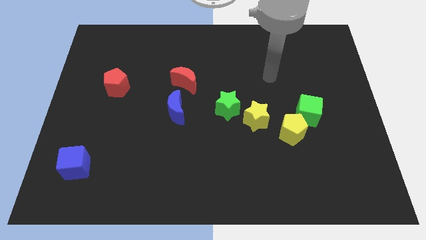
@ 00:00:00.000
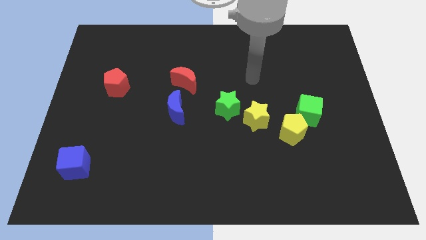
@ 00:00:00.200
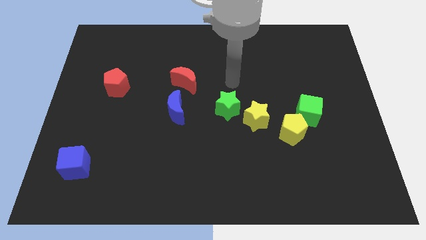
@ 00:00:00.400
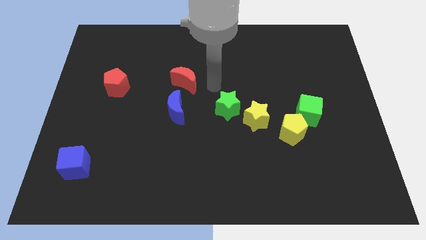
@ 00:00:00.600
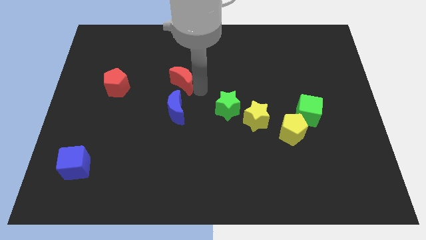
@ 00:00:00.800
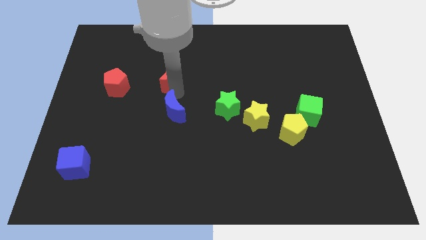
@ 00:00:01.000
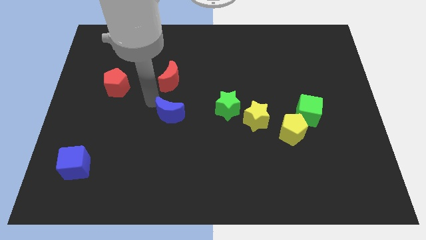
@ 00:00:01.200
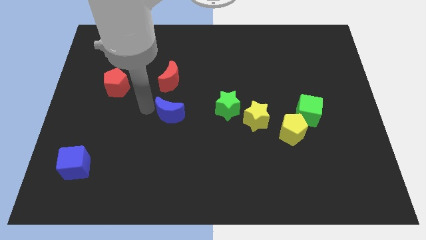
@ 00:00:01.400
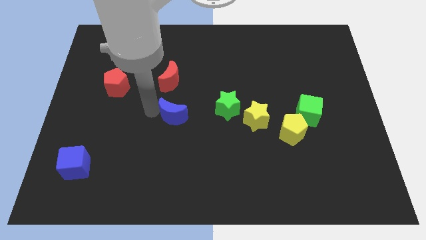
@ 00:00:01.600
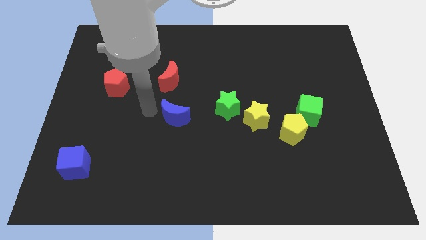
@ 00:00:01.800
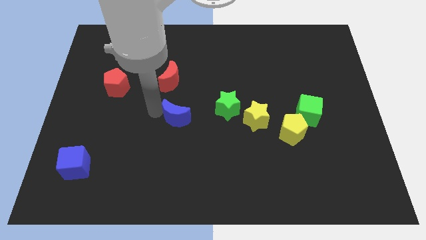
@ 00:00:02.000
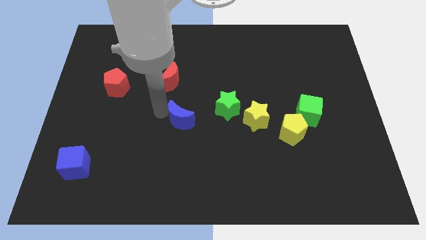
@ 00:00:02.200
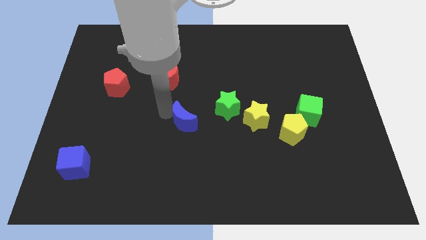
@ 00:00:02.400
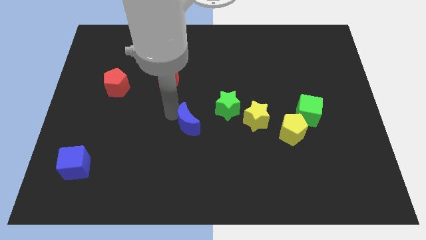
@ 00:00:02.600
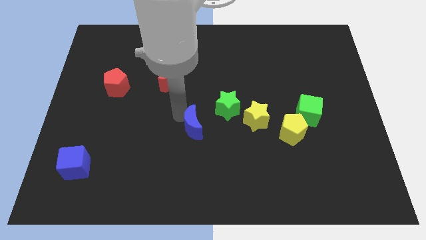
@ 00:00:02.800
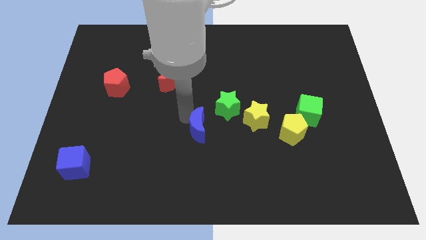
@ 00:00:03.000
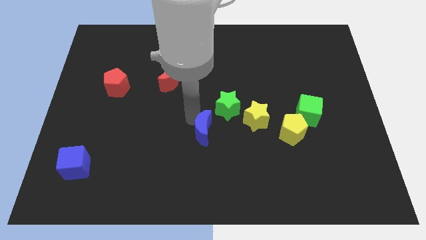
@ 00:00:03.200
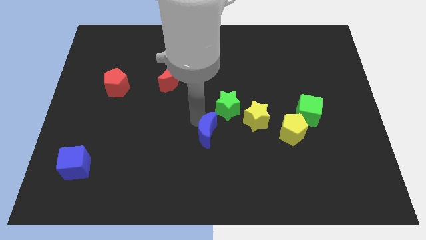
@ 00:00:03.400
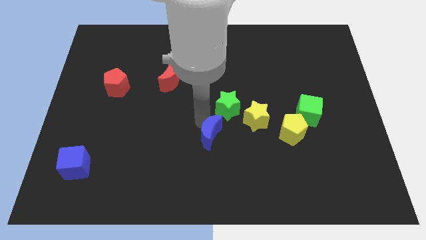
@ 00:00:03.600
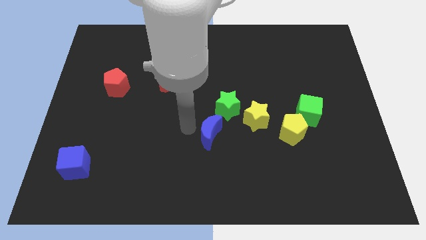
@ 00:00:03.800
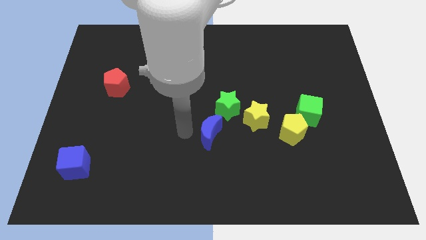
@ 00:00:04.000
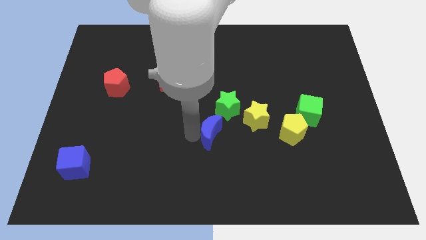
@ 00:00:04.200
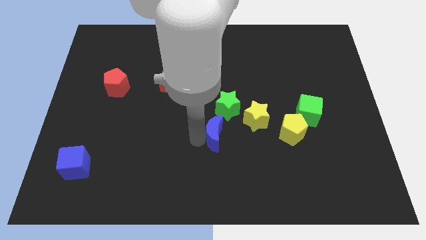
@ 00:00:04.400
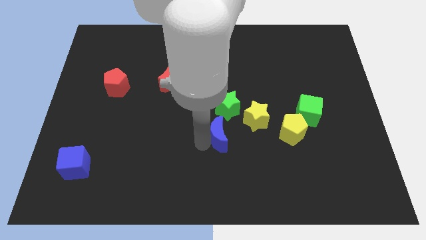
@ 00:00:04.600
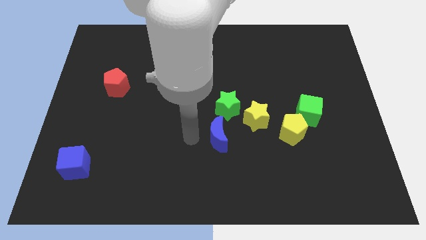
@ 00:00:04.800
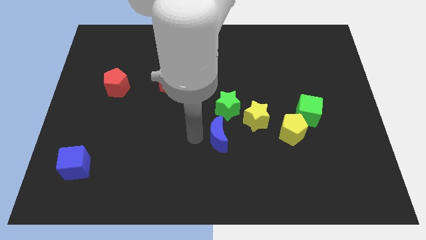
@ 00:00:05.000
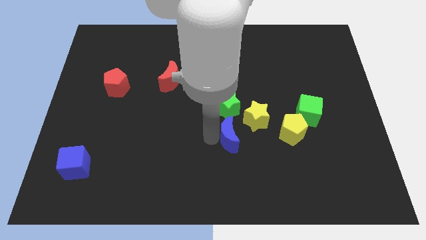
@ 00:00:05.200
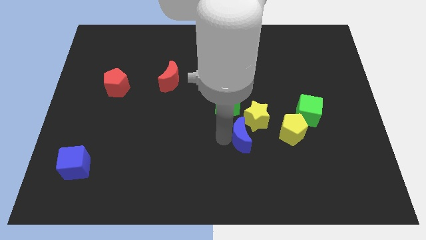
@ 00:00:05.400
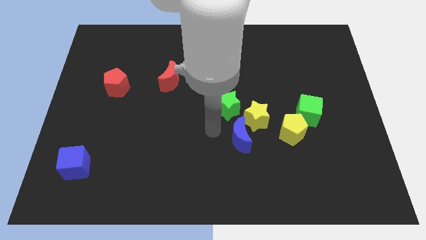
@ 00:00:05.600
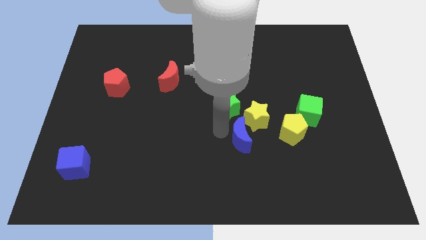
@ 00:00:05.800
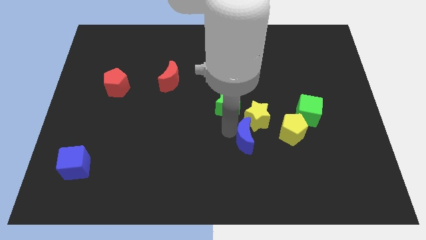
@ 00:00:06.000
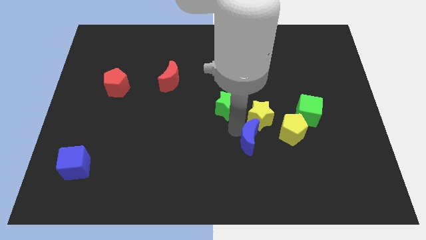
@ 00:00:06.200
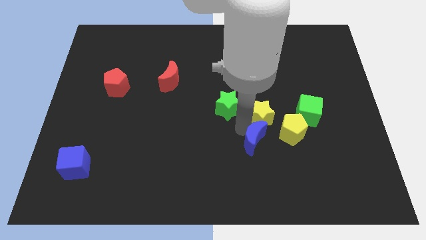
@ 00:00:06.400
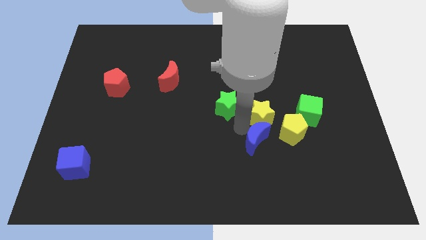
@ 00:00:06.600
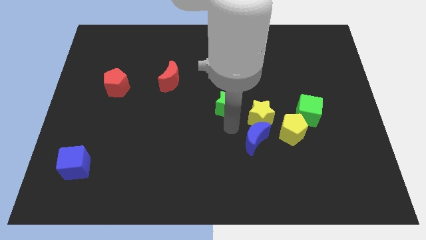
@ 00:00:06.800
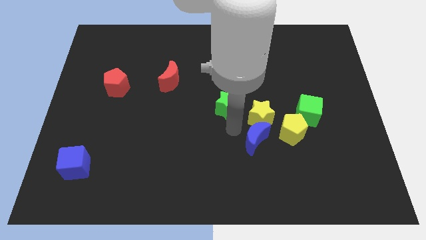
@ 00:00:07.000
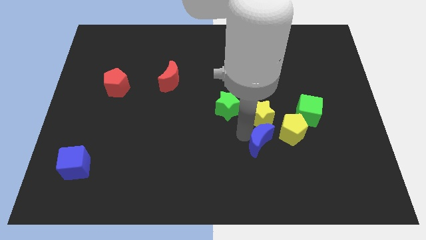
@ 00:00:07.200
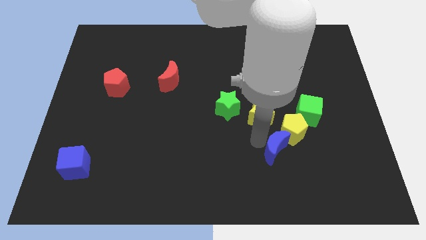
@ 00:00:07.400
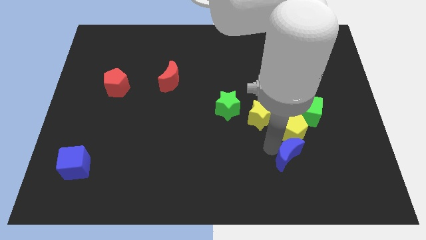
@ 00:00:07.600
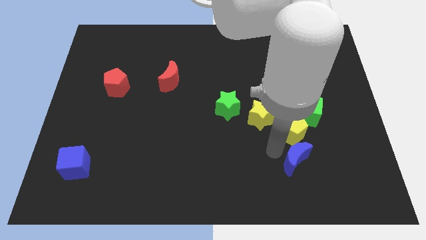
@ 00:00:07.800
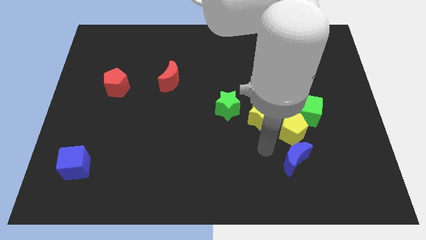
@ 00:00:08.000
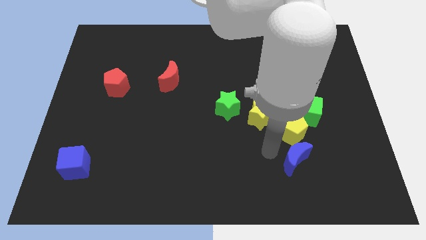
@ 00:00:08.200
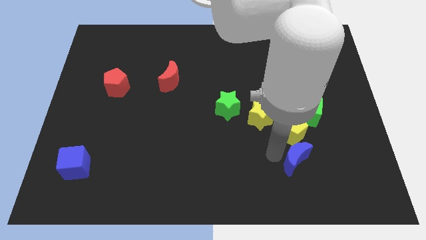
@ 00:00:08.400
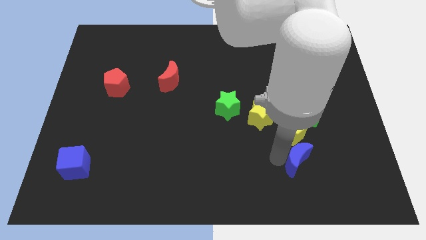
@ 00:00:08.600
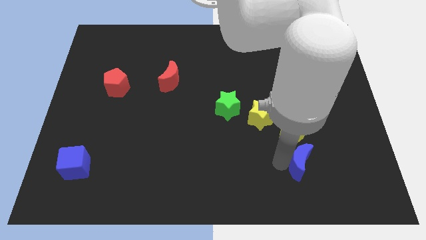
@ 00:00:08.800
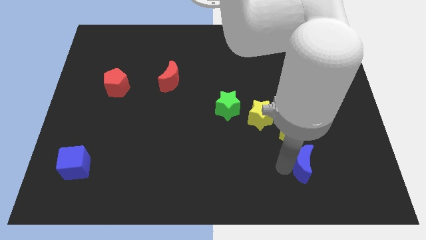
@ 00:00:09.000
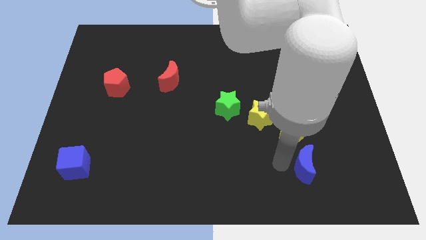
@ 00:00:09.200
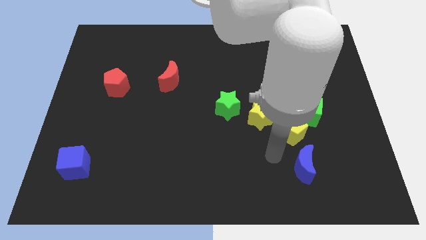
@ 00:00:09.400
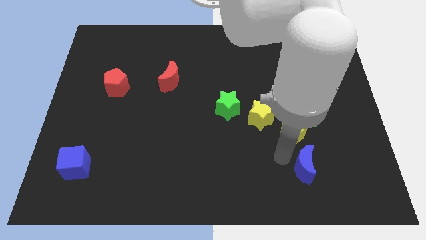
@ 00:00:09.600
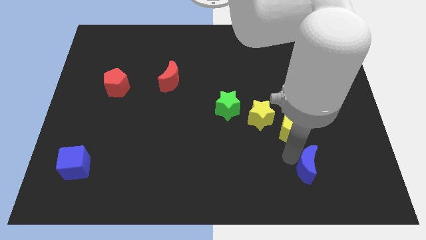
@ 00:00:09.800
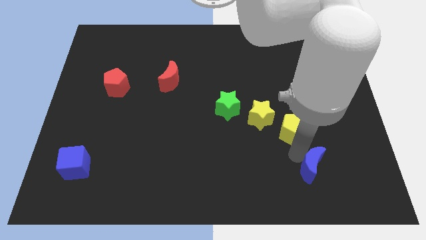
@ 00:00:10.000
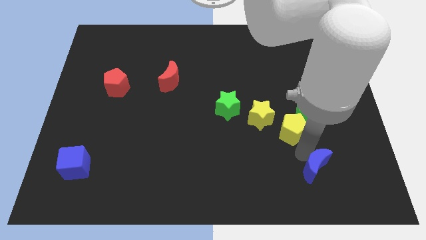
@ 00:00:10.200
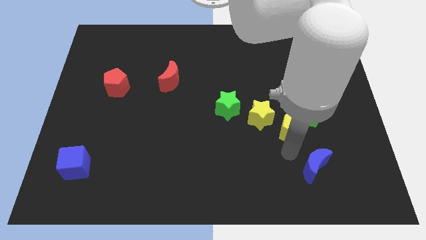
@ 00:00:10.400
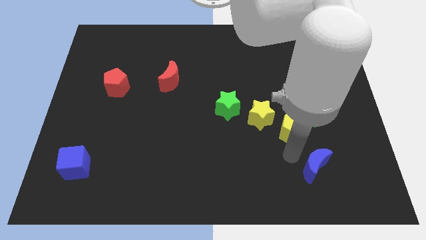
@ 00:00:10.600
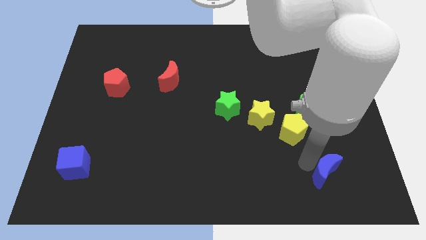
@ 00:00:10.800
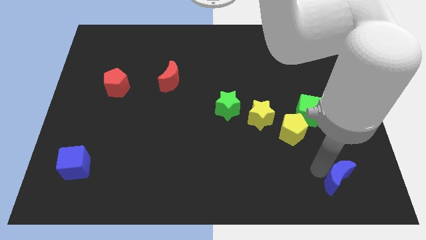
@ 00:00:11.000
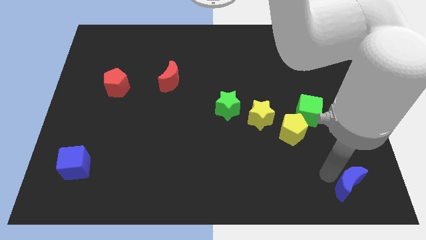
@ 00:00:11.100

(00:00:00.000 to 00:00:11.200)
put the blue moon to the bottom right of the board

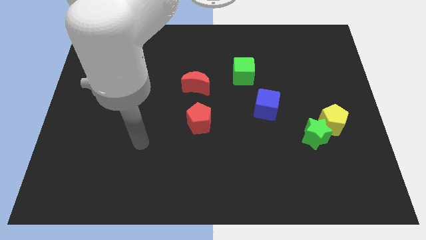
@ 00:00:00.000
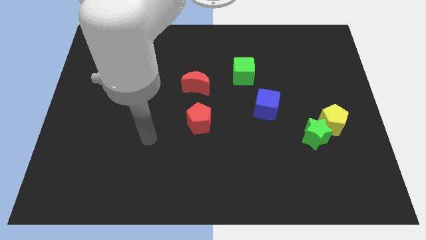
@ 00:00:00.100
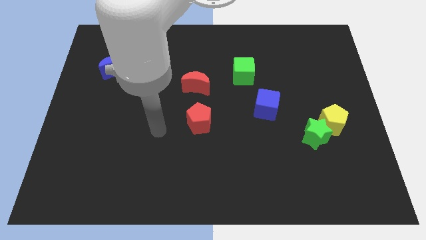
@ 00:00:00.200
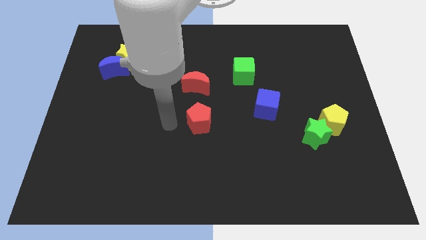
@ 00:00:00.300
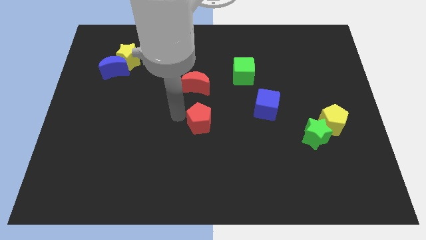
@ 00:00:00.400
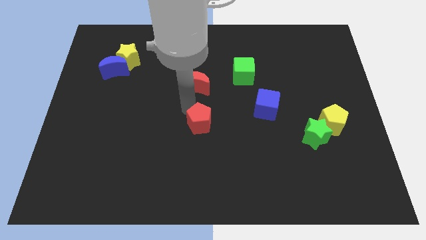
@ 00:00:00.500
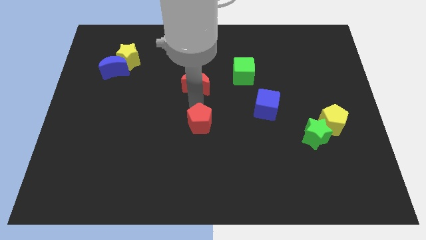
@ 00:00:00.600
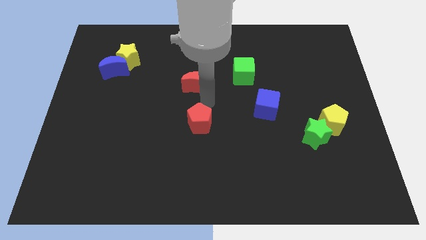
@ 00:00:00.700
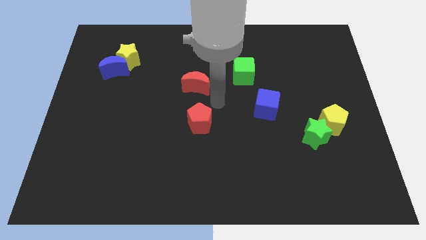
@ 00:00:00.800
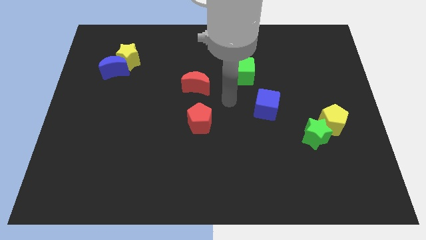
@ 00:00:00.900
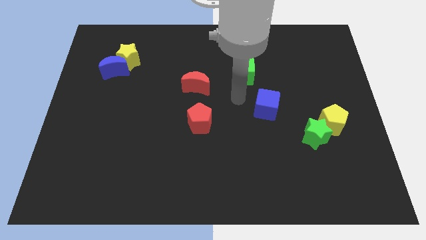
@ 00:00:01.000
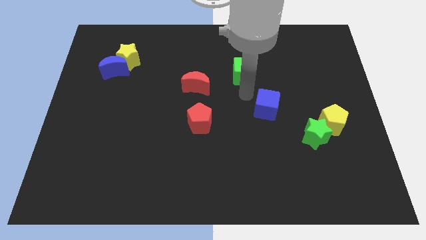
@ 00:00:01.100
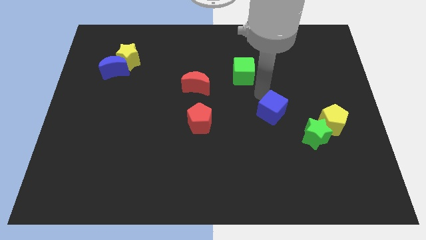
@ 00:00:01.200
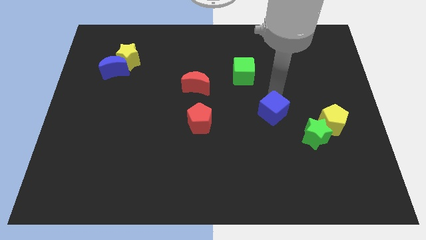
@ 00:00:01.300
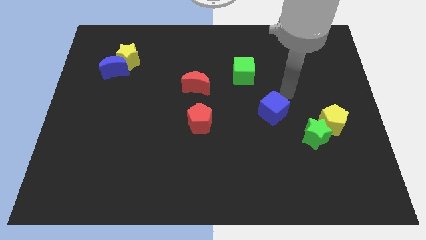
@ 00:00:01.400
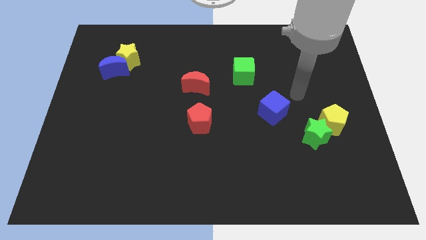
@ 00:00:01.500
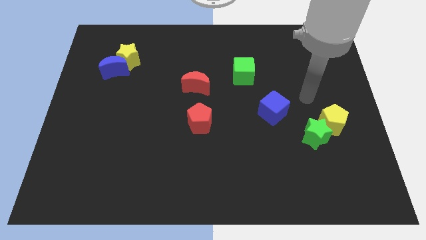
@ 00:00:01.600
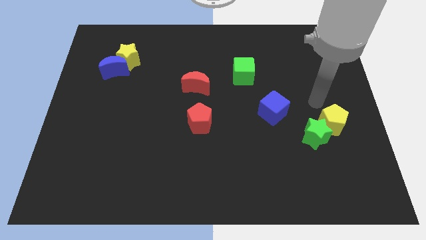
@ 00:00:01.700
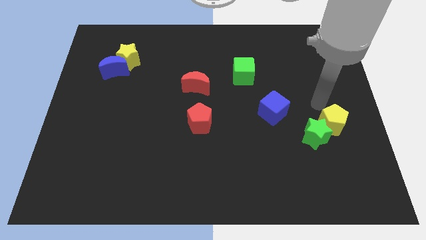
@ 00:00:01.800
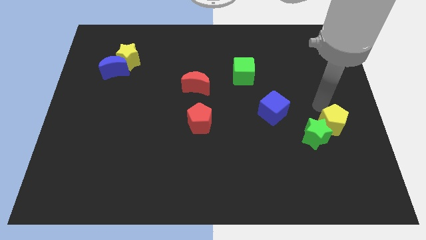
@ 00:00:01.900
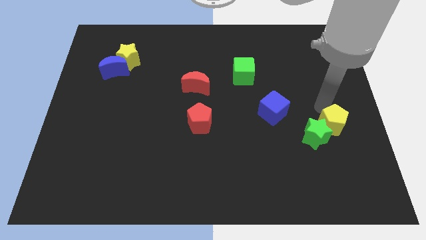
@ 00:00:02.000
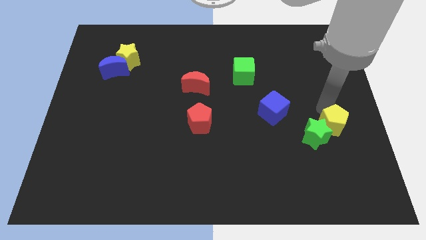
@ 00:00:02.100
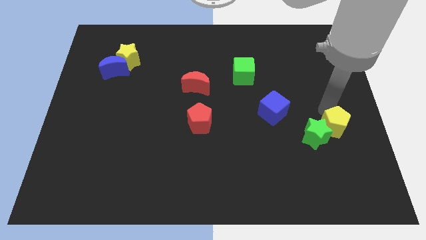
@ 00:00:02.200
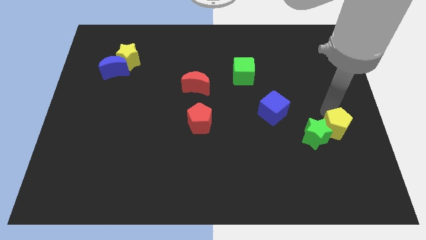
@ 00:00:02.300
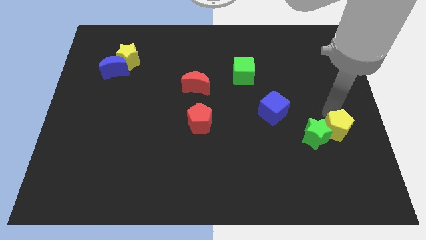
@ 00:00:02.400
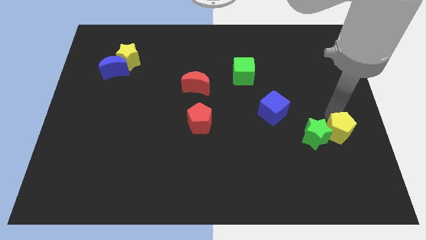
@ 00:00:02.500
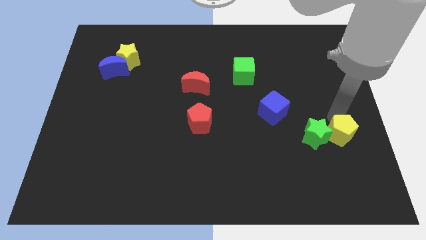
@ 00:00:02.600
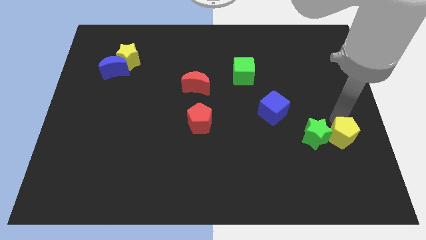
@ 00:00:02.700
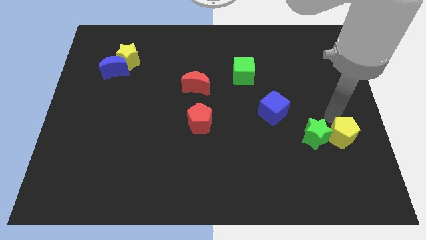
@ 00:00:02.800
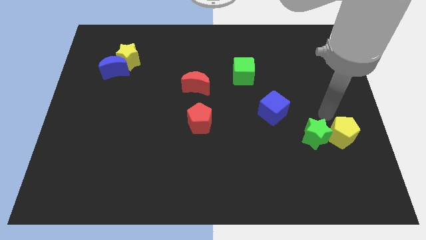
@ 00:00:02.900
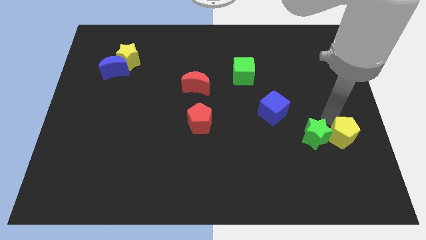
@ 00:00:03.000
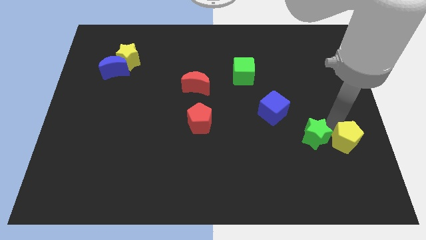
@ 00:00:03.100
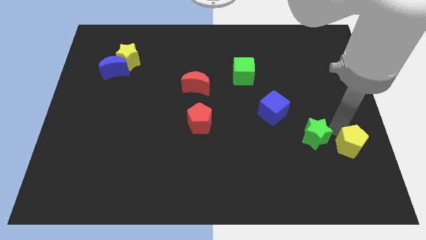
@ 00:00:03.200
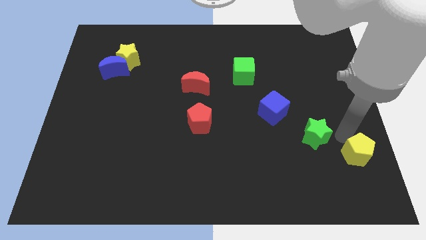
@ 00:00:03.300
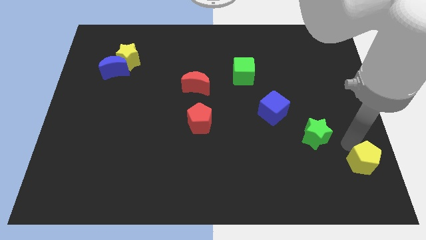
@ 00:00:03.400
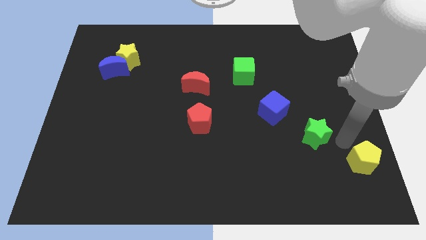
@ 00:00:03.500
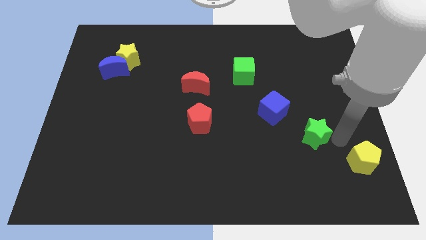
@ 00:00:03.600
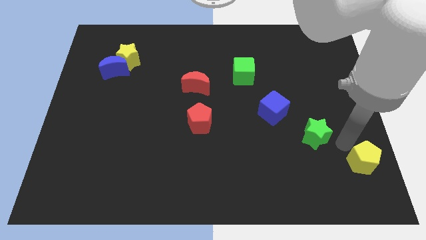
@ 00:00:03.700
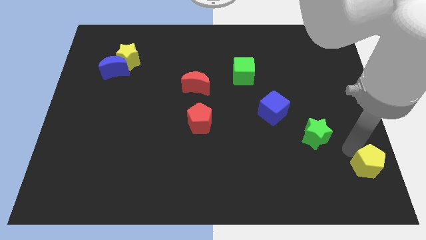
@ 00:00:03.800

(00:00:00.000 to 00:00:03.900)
slide the yellow pentagon to the lower right corner
